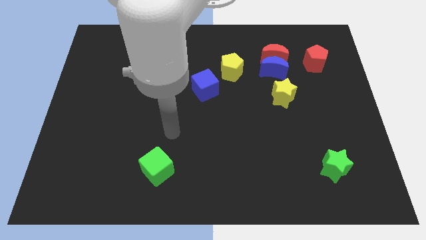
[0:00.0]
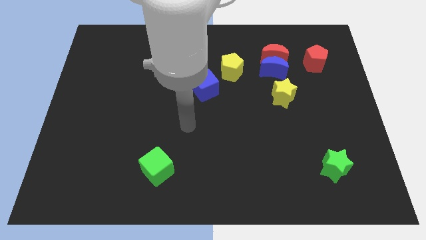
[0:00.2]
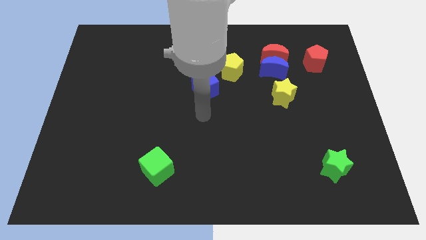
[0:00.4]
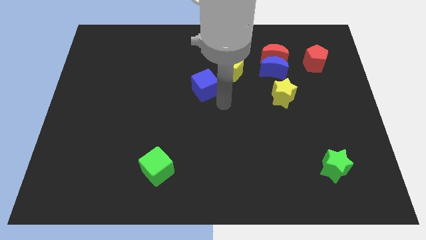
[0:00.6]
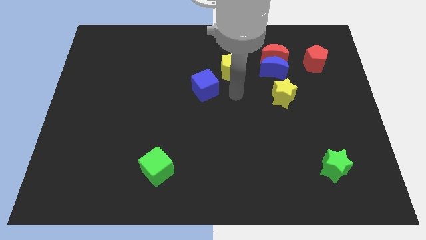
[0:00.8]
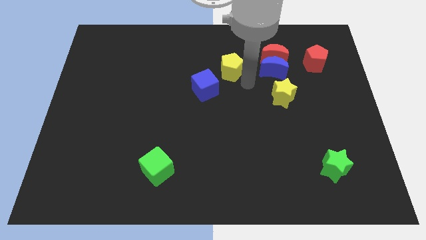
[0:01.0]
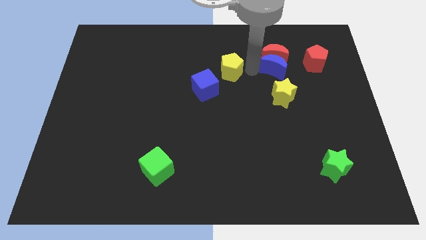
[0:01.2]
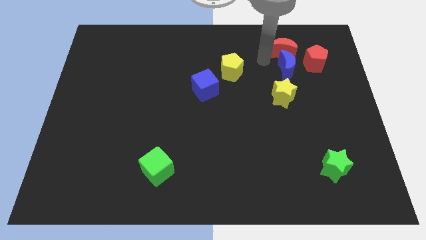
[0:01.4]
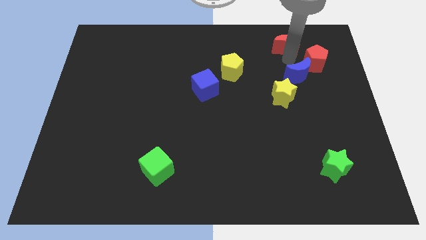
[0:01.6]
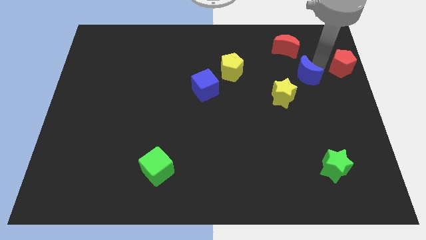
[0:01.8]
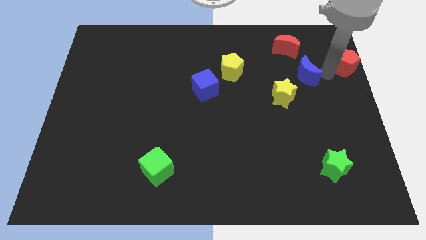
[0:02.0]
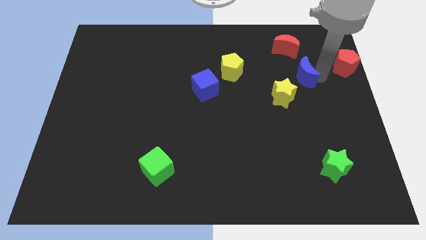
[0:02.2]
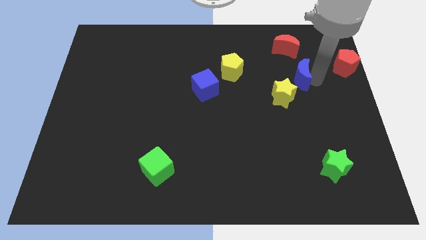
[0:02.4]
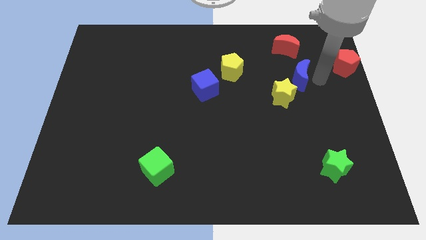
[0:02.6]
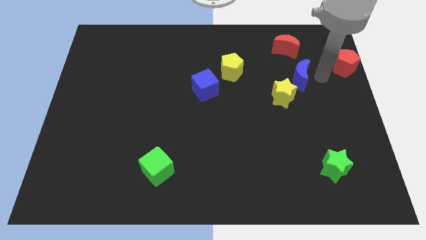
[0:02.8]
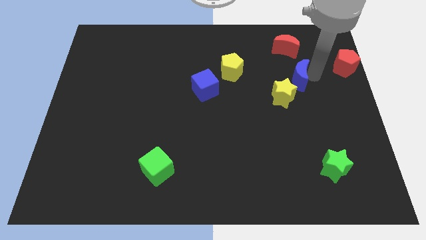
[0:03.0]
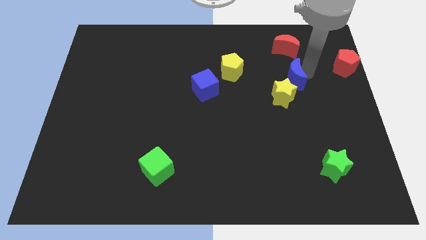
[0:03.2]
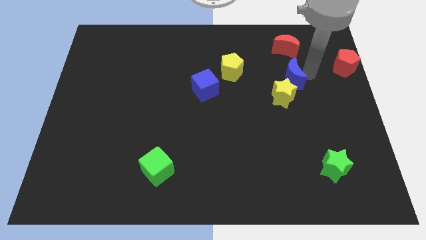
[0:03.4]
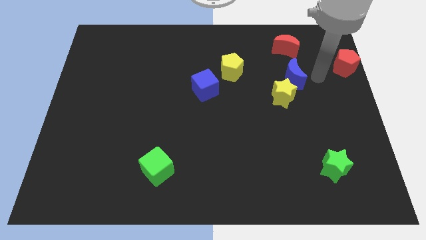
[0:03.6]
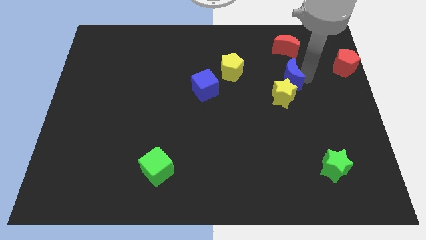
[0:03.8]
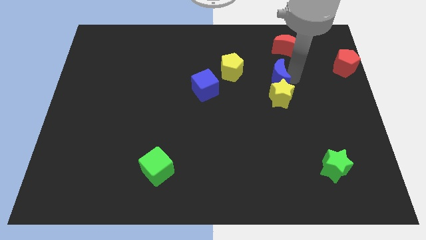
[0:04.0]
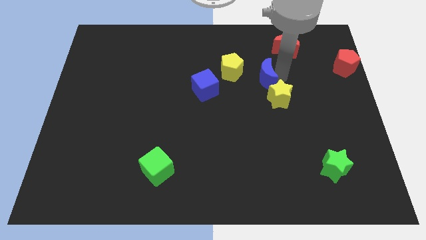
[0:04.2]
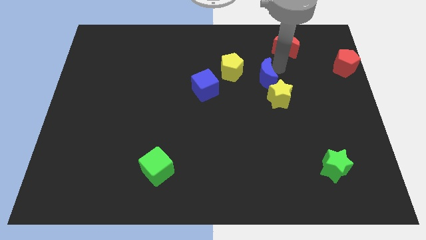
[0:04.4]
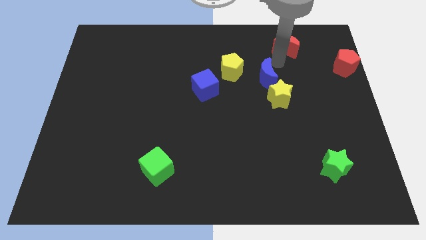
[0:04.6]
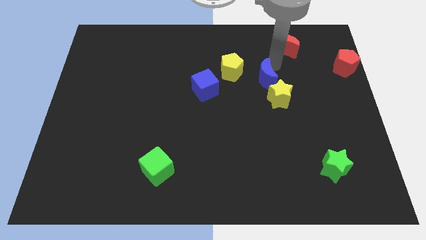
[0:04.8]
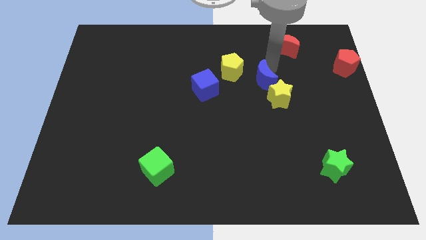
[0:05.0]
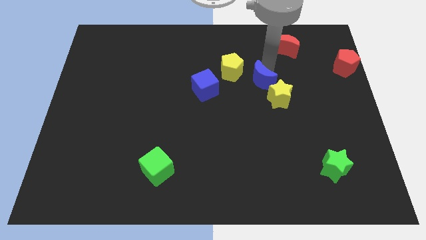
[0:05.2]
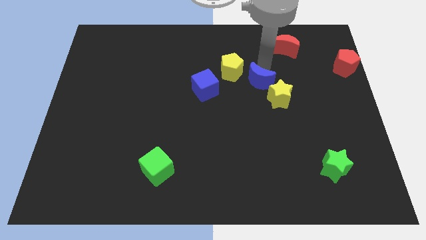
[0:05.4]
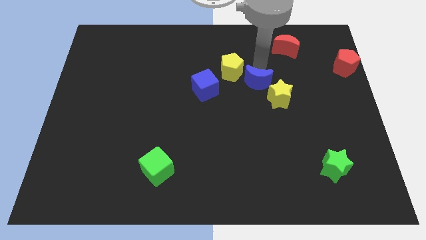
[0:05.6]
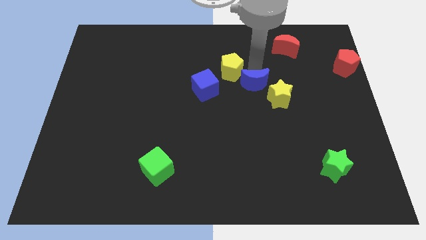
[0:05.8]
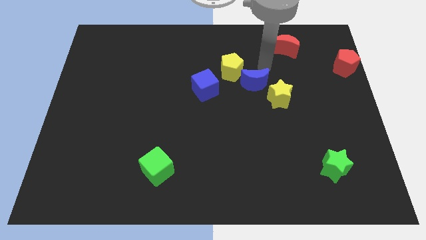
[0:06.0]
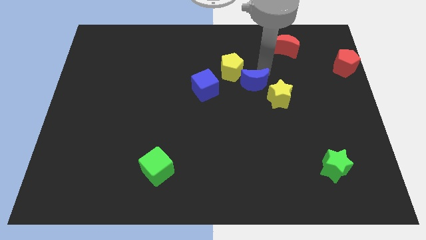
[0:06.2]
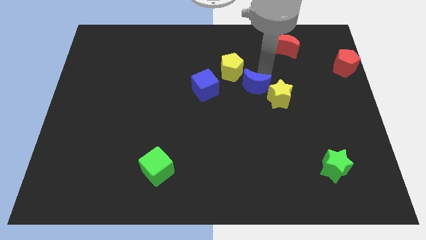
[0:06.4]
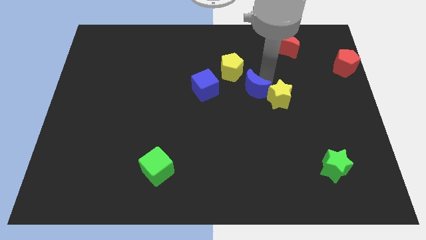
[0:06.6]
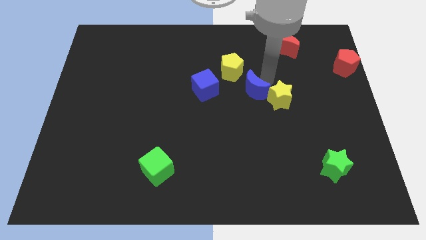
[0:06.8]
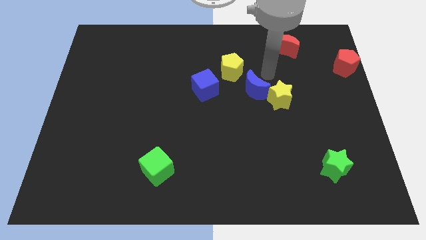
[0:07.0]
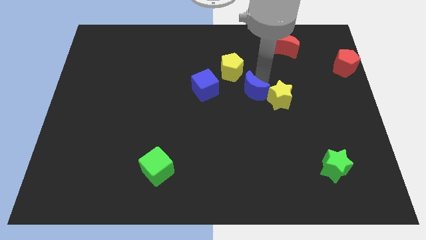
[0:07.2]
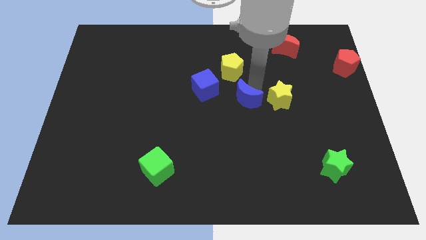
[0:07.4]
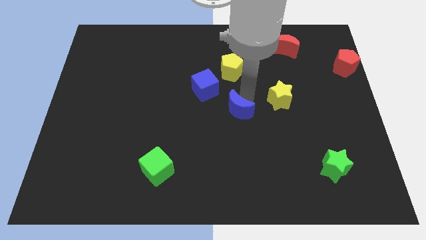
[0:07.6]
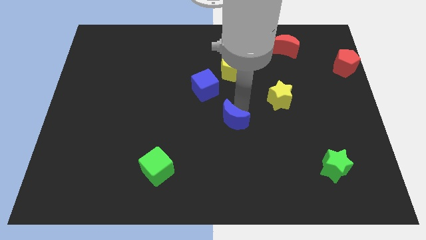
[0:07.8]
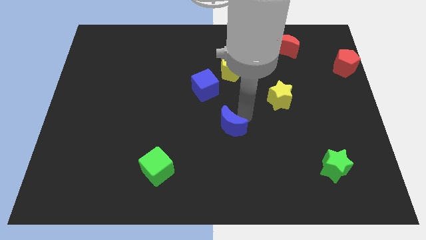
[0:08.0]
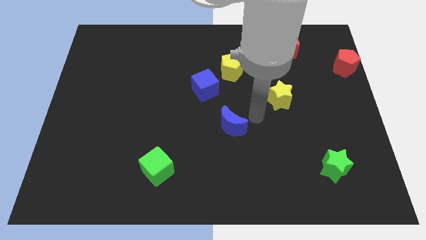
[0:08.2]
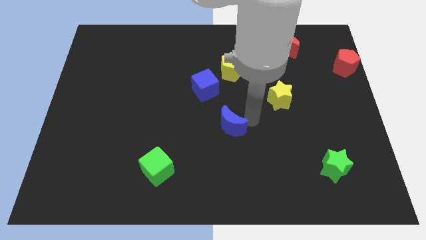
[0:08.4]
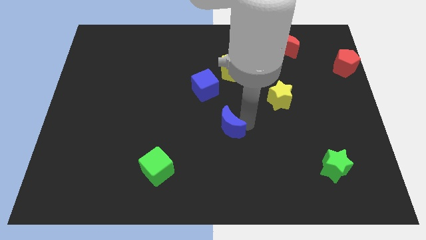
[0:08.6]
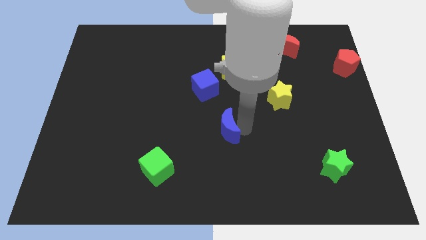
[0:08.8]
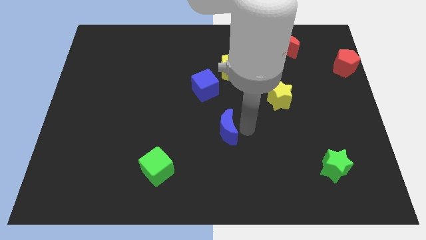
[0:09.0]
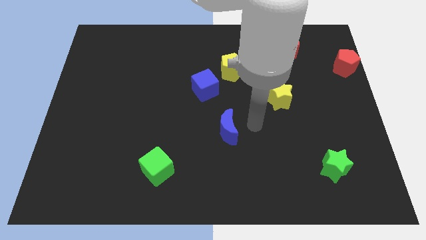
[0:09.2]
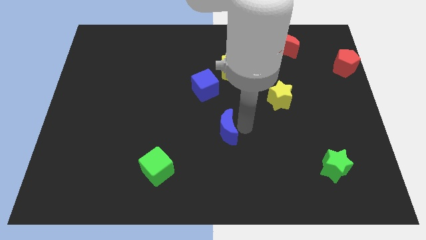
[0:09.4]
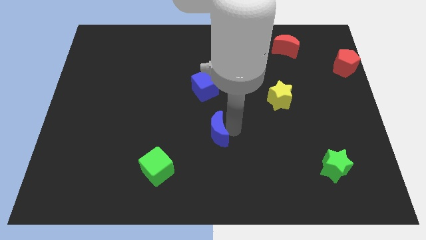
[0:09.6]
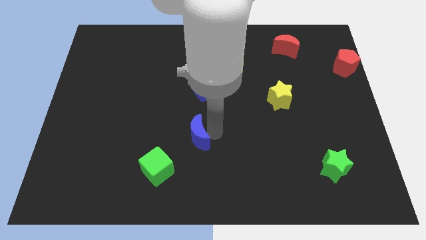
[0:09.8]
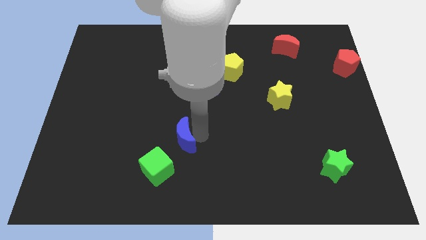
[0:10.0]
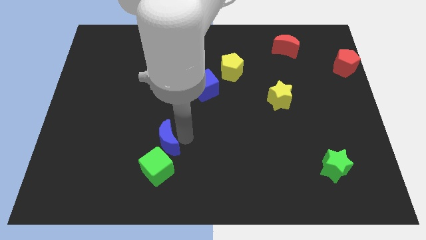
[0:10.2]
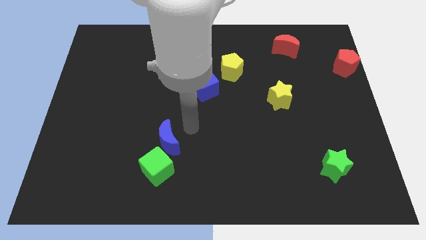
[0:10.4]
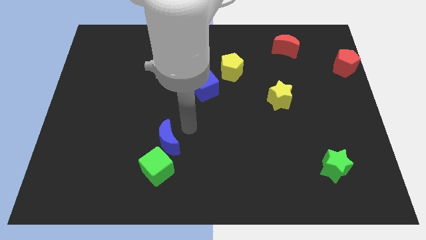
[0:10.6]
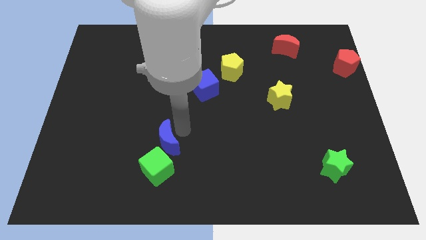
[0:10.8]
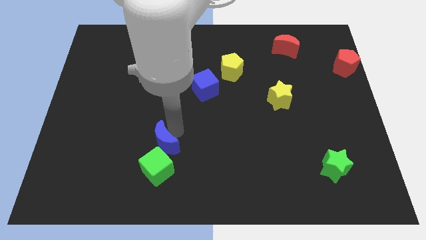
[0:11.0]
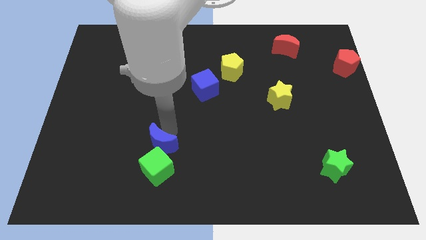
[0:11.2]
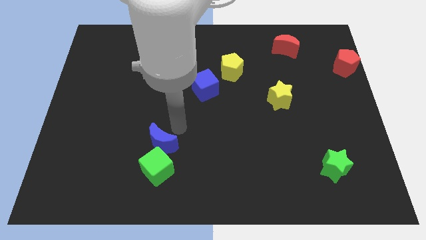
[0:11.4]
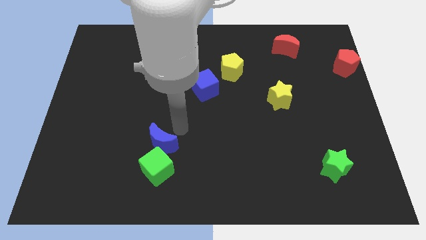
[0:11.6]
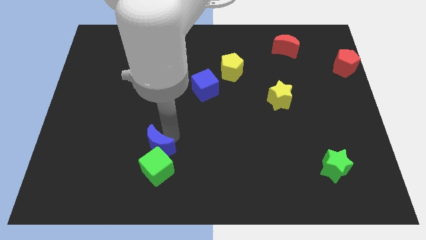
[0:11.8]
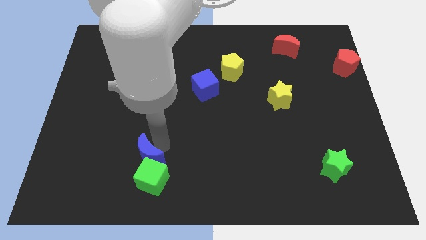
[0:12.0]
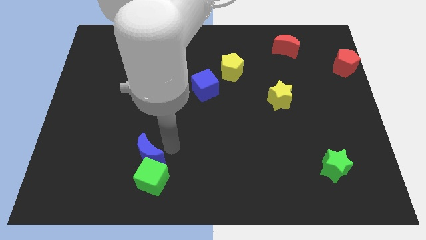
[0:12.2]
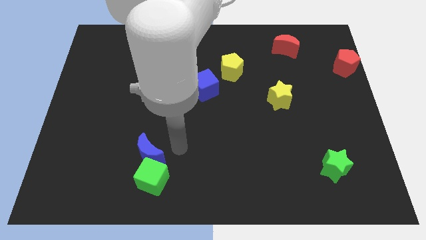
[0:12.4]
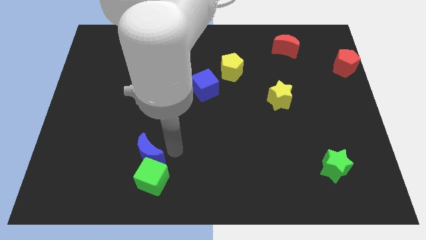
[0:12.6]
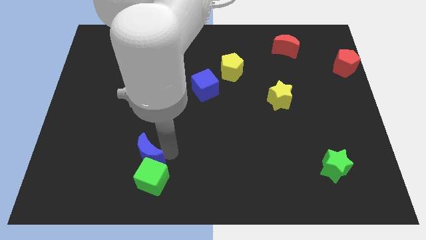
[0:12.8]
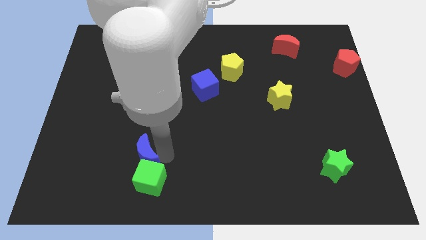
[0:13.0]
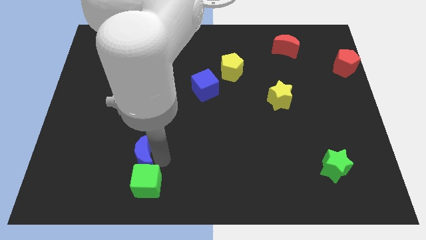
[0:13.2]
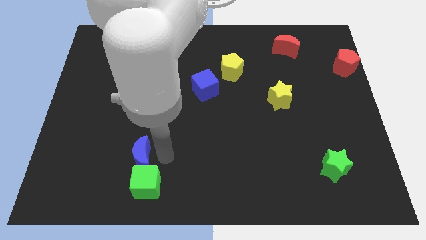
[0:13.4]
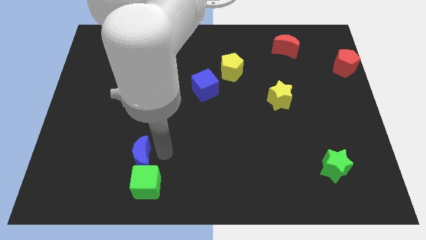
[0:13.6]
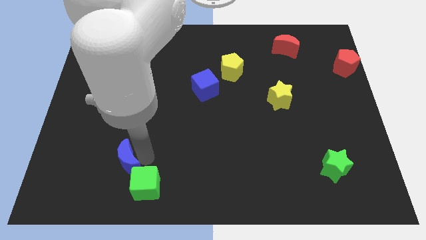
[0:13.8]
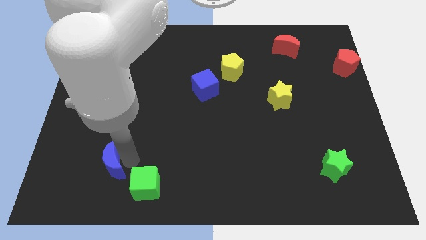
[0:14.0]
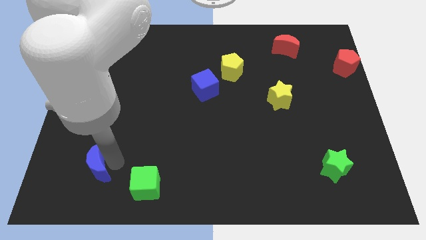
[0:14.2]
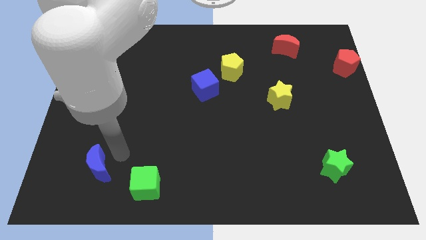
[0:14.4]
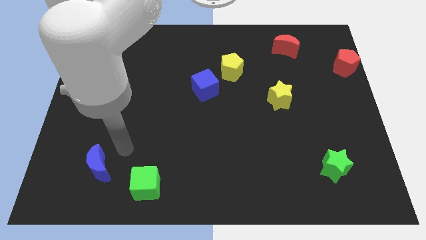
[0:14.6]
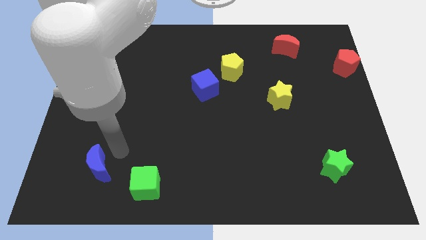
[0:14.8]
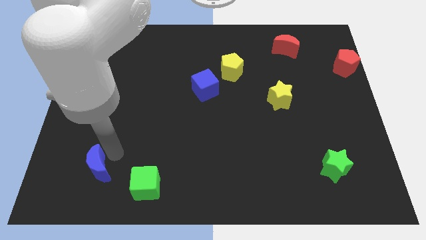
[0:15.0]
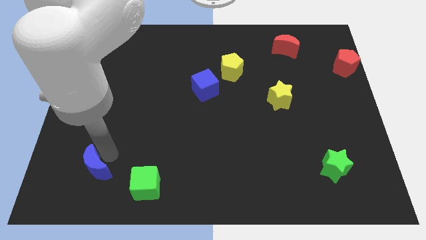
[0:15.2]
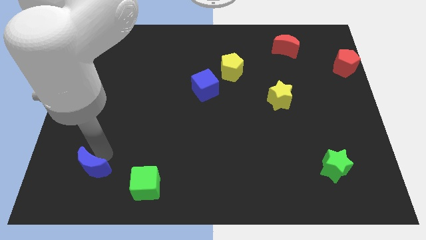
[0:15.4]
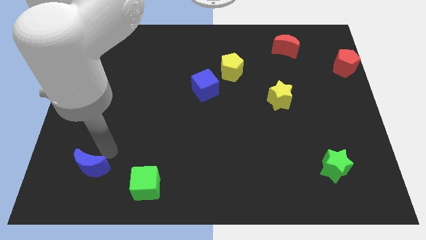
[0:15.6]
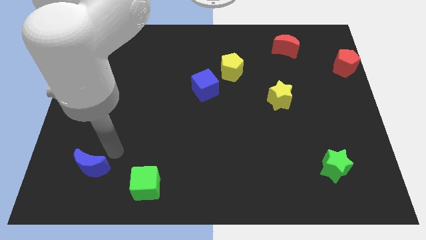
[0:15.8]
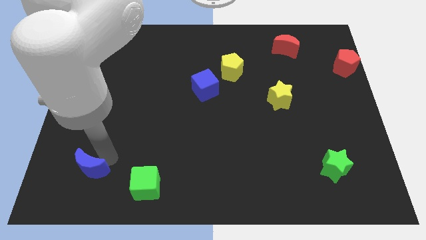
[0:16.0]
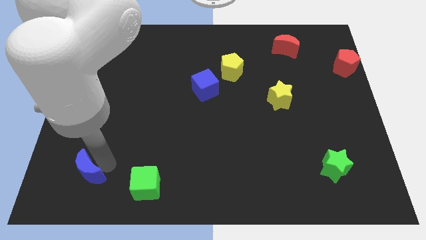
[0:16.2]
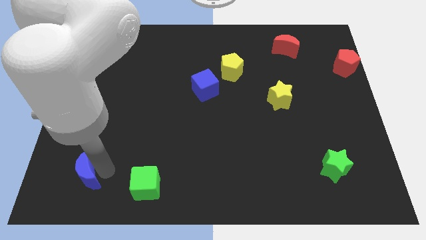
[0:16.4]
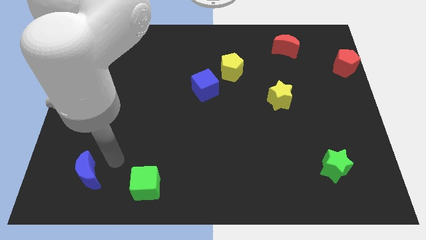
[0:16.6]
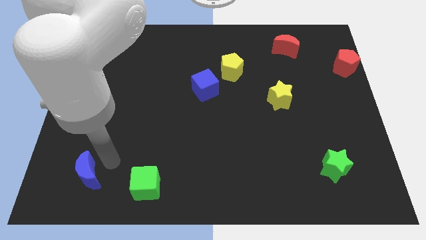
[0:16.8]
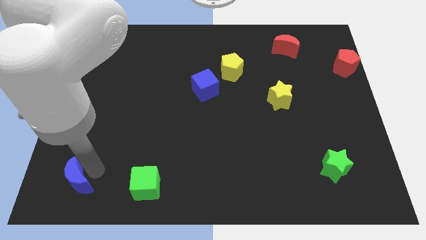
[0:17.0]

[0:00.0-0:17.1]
put the blue moon to the bottom left of the board
